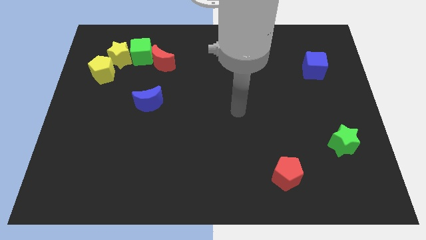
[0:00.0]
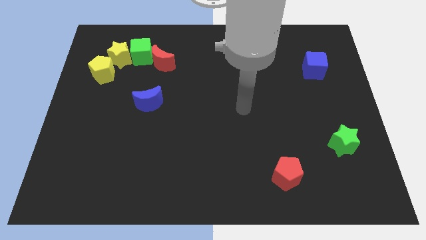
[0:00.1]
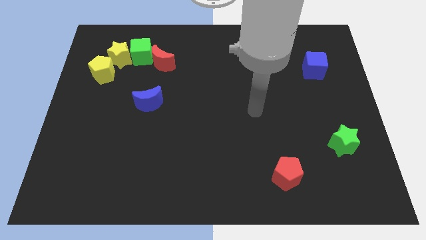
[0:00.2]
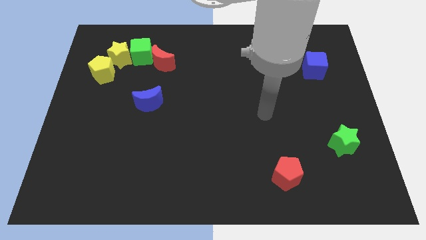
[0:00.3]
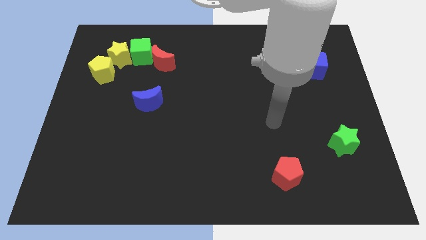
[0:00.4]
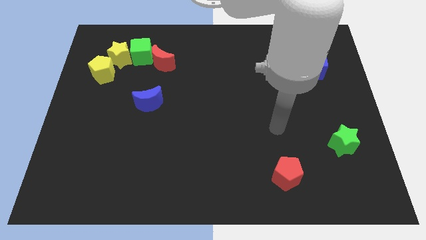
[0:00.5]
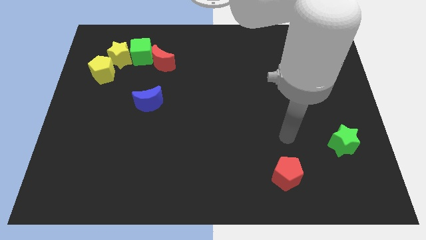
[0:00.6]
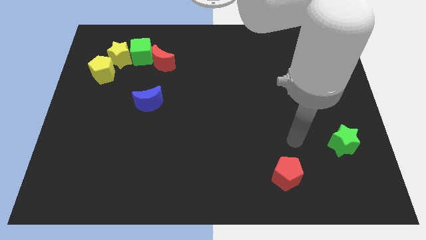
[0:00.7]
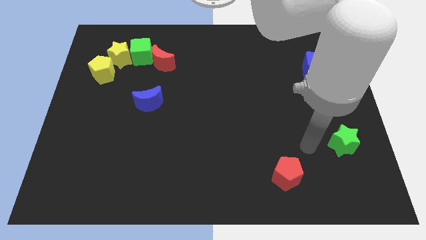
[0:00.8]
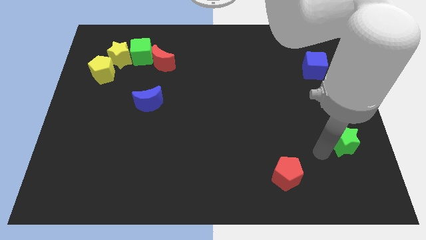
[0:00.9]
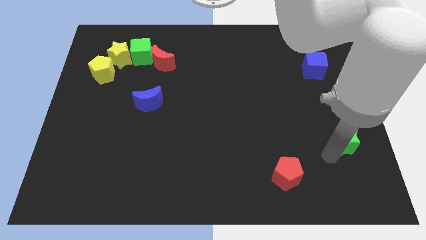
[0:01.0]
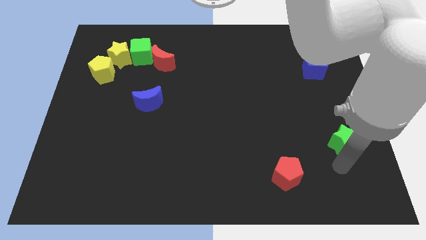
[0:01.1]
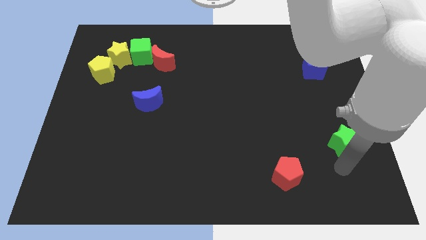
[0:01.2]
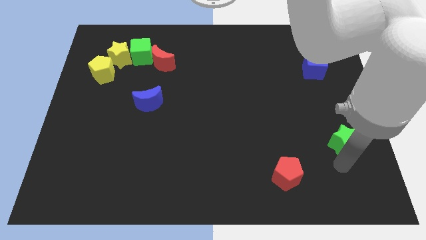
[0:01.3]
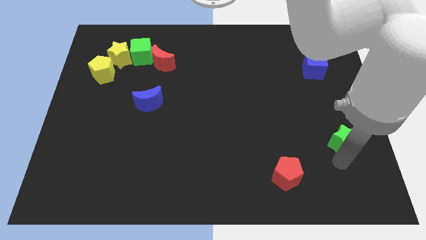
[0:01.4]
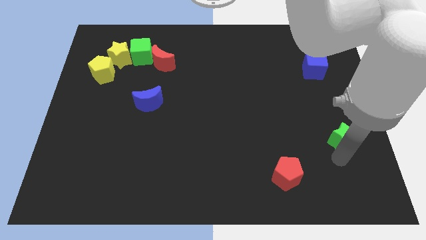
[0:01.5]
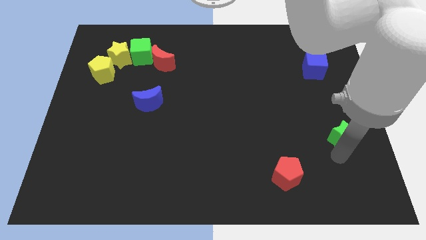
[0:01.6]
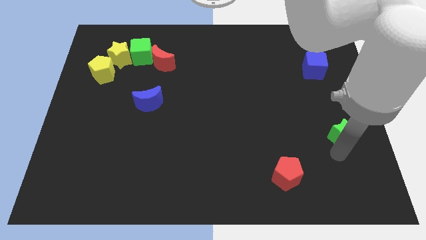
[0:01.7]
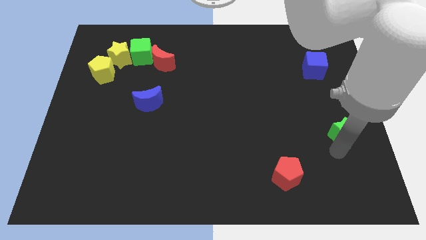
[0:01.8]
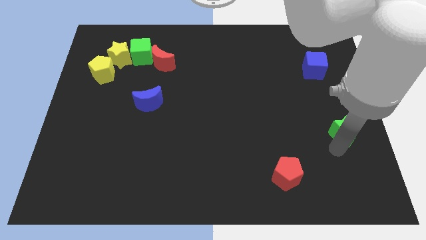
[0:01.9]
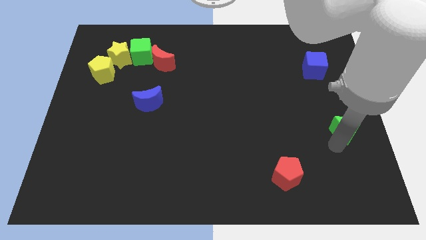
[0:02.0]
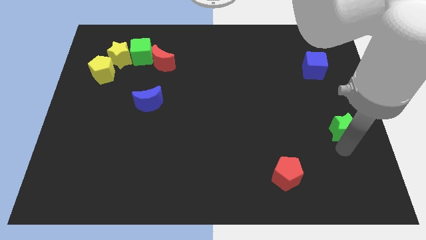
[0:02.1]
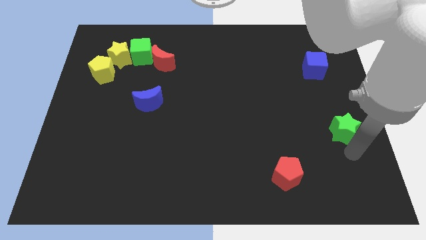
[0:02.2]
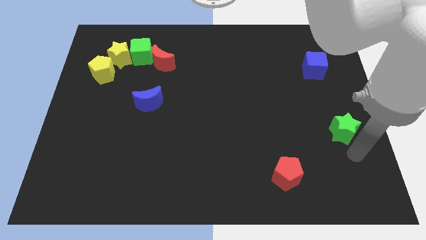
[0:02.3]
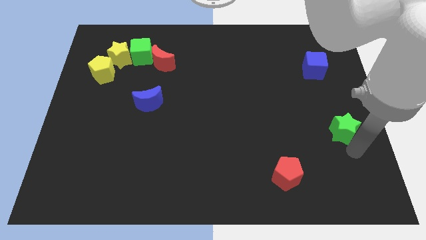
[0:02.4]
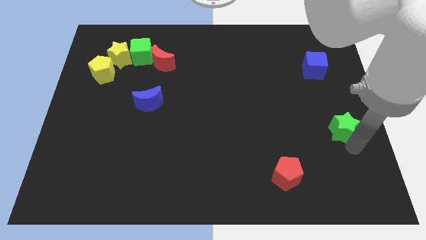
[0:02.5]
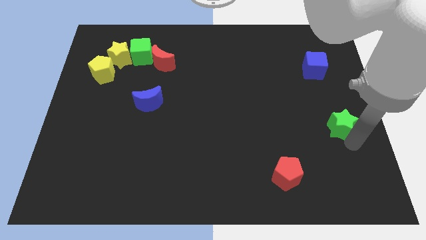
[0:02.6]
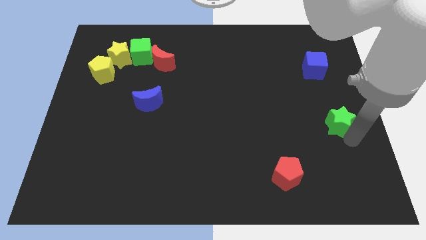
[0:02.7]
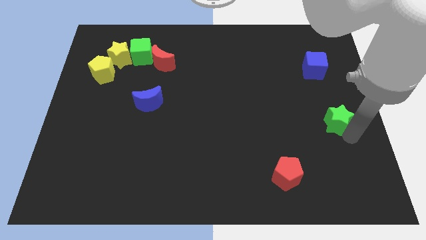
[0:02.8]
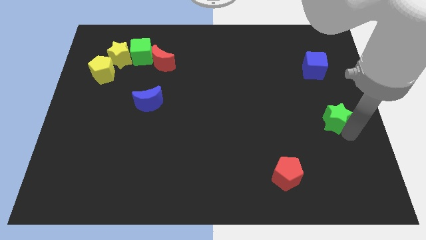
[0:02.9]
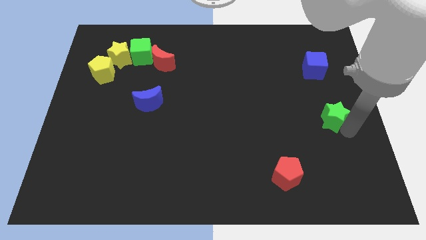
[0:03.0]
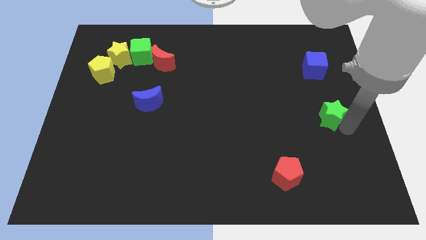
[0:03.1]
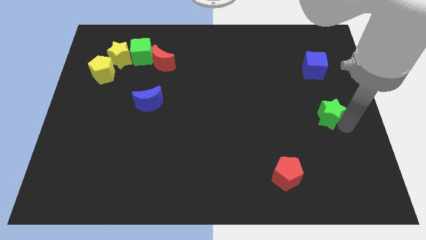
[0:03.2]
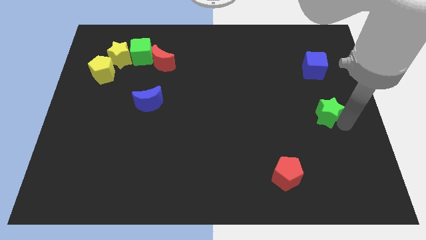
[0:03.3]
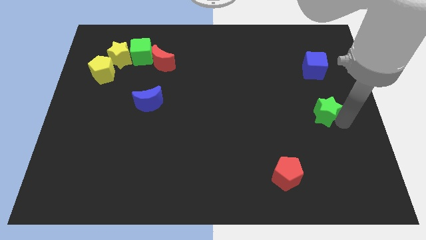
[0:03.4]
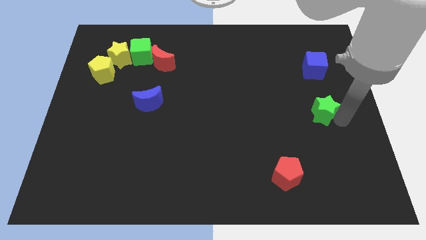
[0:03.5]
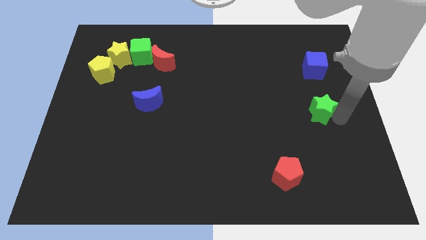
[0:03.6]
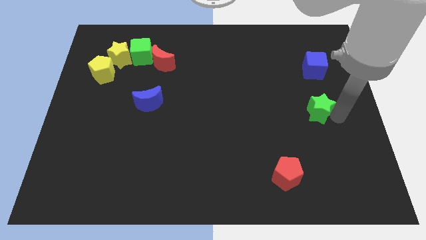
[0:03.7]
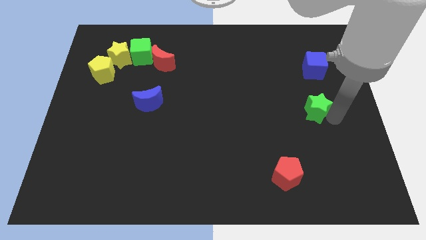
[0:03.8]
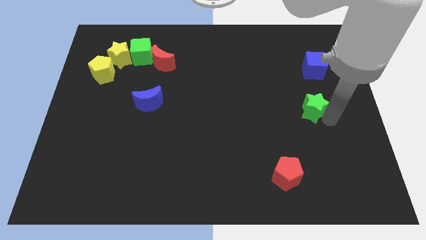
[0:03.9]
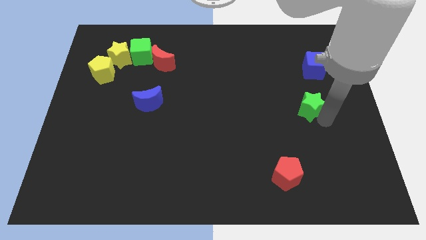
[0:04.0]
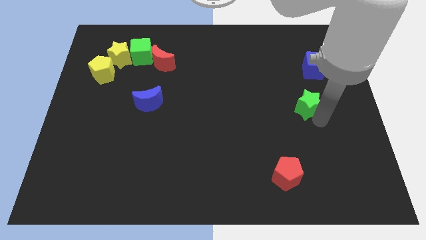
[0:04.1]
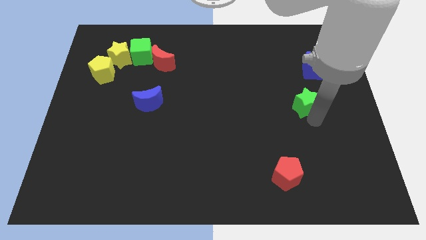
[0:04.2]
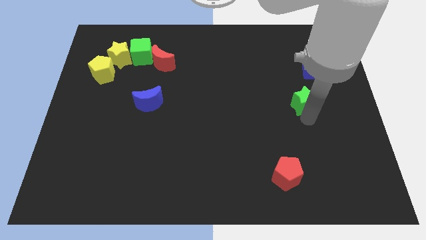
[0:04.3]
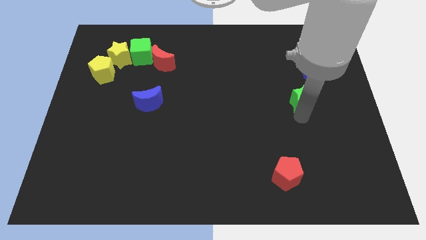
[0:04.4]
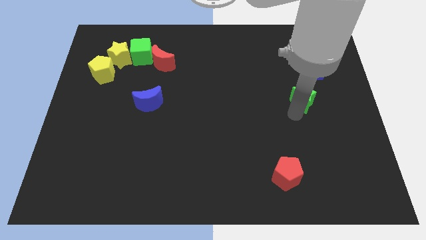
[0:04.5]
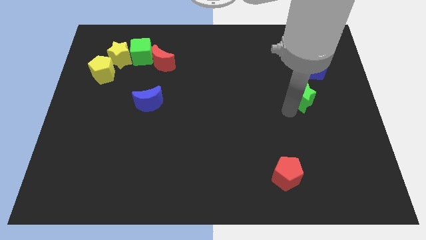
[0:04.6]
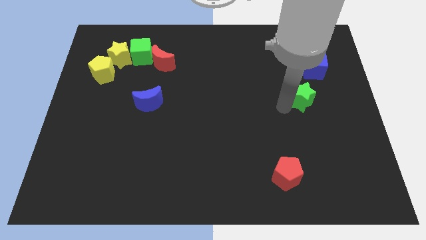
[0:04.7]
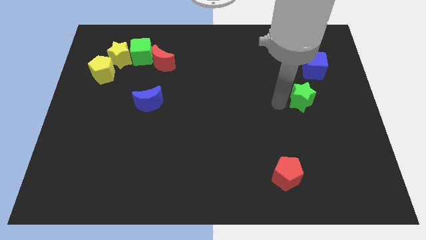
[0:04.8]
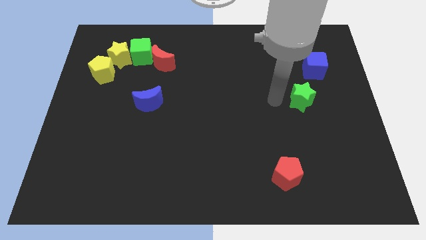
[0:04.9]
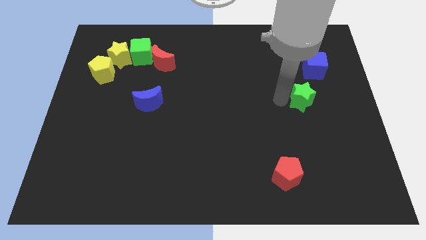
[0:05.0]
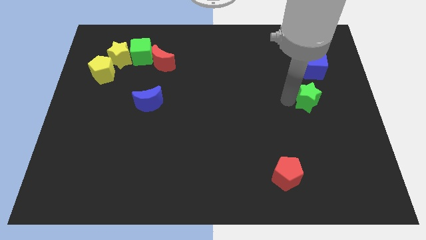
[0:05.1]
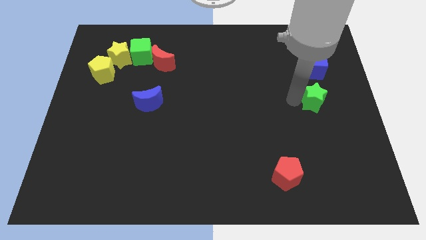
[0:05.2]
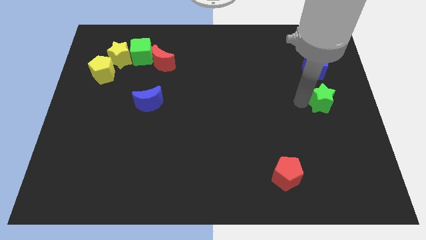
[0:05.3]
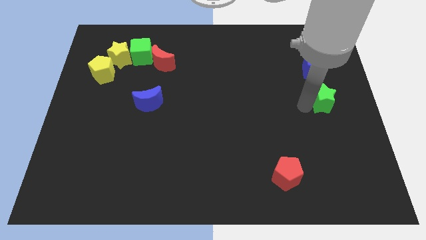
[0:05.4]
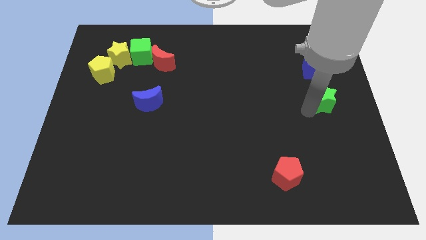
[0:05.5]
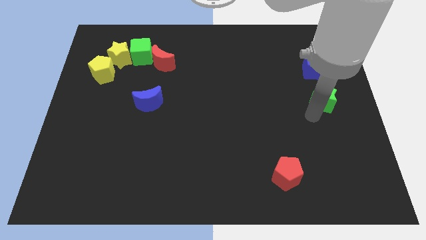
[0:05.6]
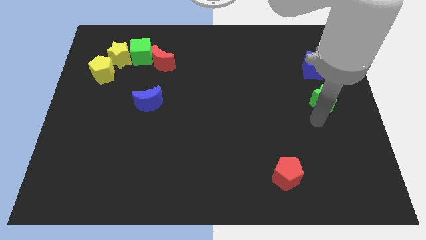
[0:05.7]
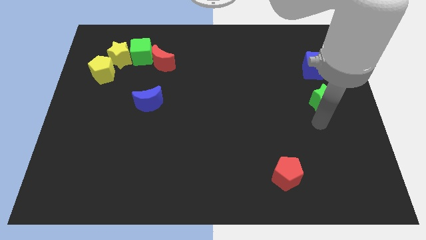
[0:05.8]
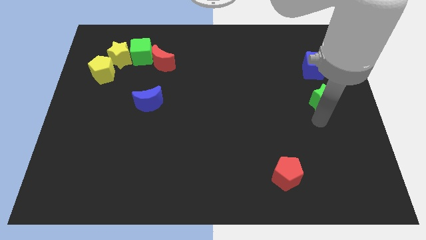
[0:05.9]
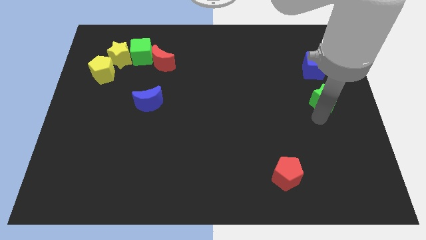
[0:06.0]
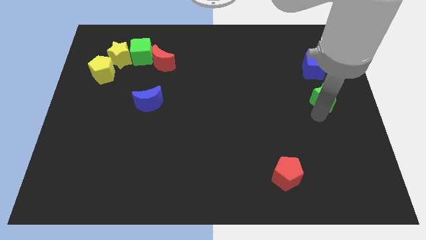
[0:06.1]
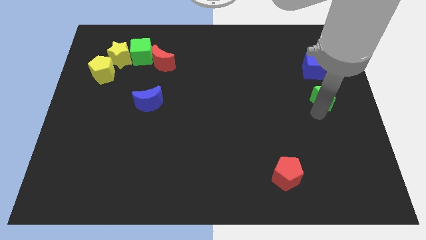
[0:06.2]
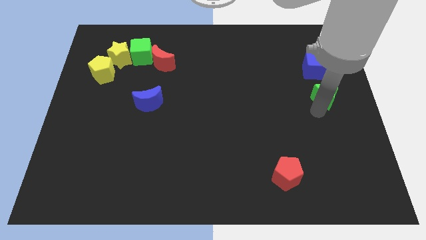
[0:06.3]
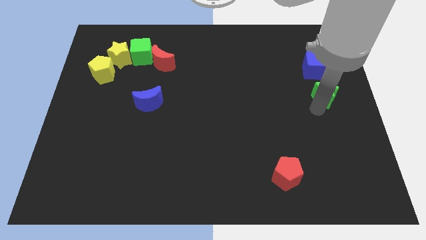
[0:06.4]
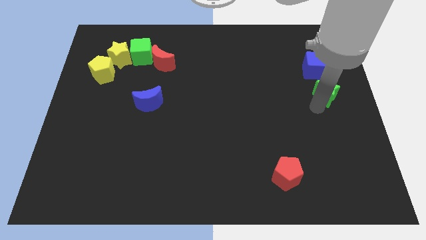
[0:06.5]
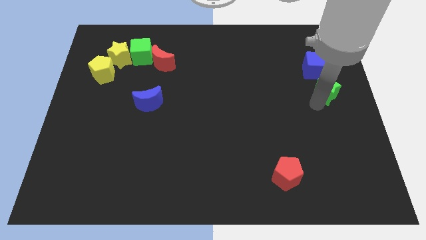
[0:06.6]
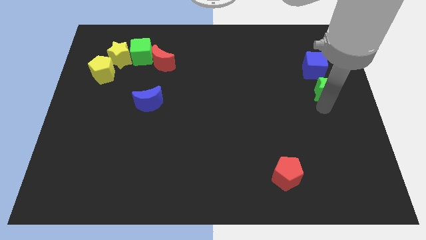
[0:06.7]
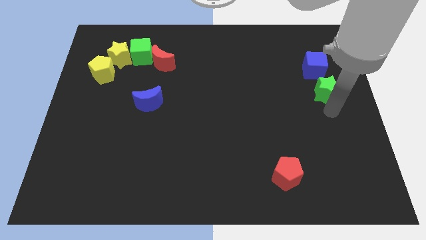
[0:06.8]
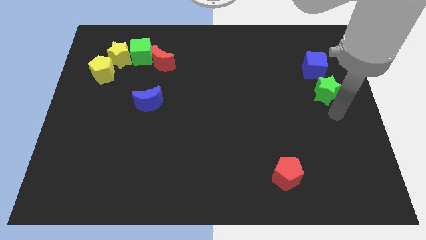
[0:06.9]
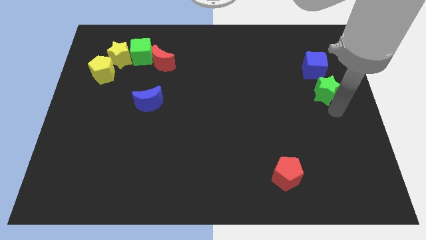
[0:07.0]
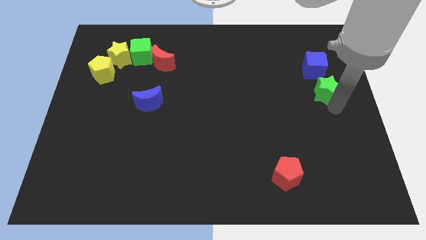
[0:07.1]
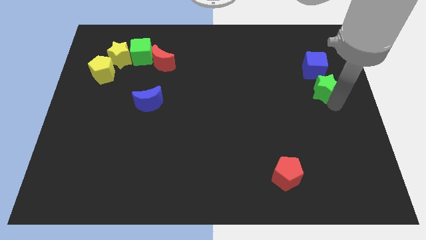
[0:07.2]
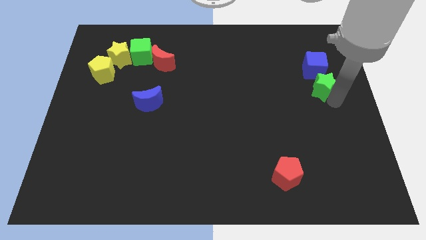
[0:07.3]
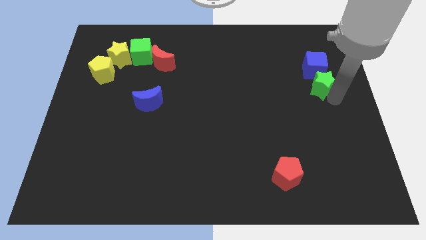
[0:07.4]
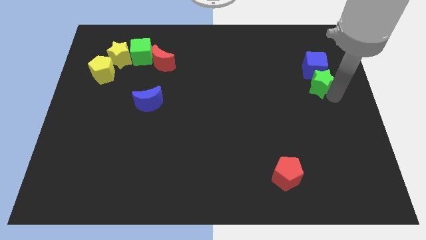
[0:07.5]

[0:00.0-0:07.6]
slide the green star close to the blue cube

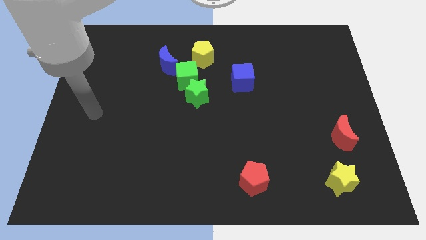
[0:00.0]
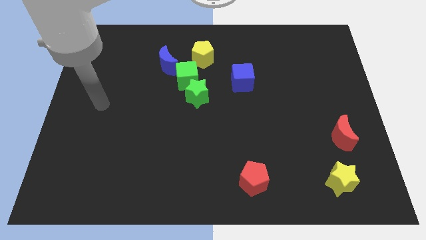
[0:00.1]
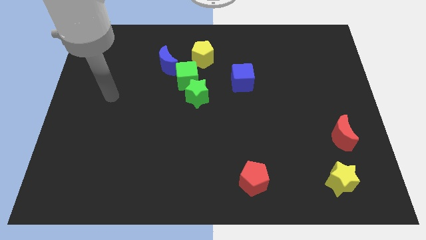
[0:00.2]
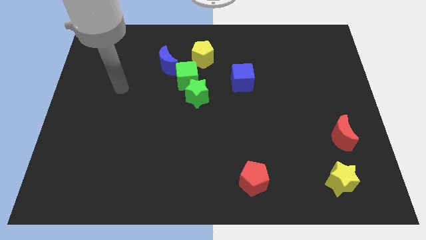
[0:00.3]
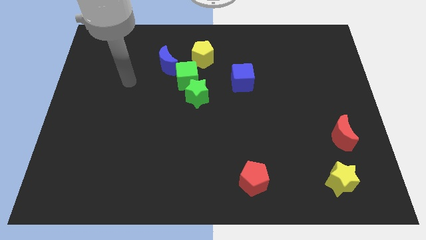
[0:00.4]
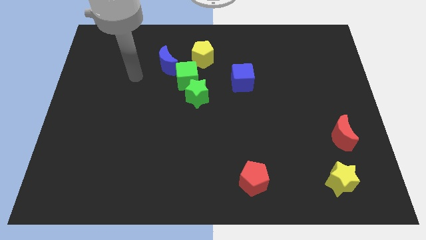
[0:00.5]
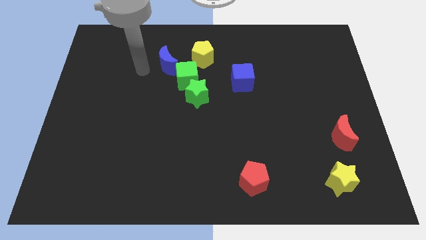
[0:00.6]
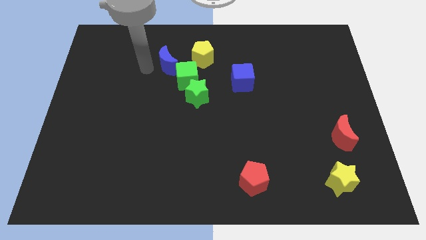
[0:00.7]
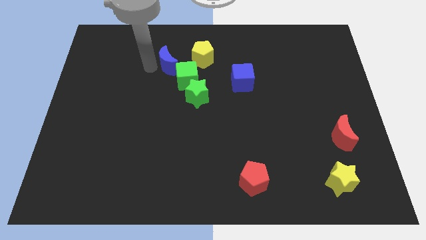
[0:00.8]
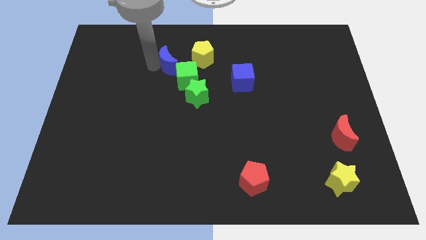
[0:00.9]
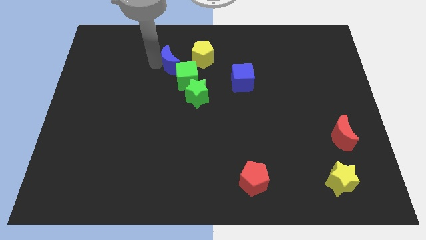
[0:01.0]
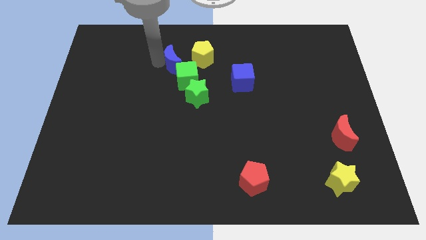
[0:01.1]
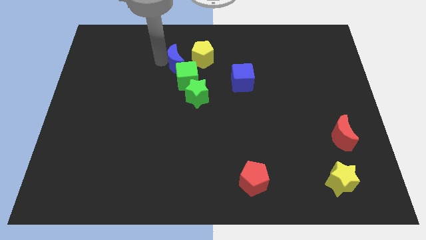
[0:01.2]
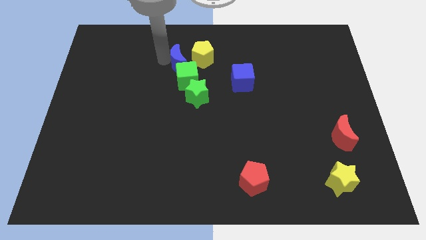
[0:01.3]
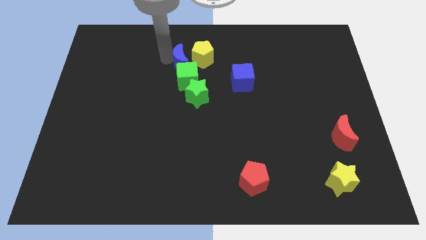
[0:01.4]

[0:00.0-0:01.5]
move the blue moon next to the yellow pentagon
